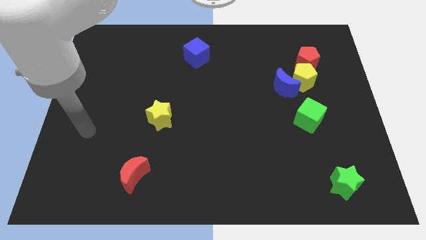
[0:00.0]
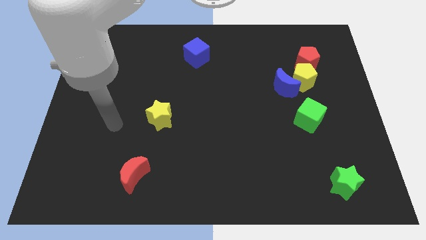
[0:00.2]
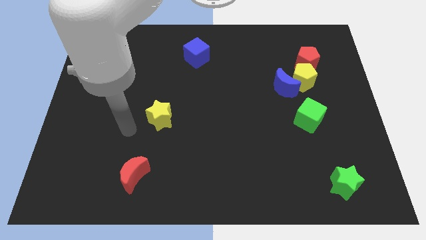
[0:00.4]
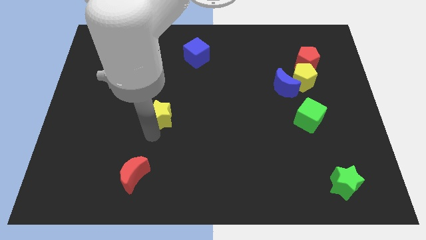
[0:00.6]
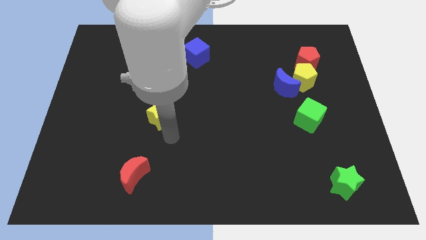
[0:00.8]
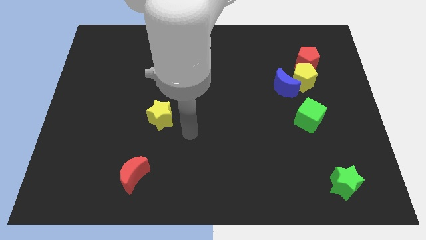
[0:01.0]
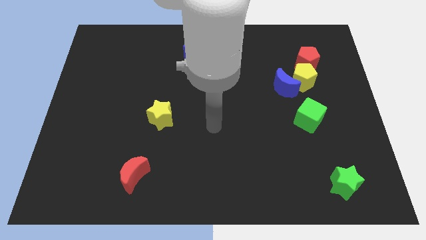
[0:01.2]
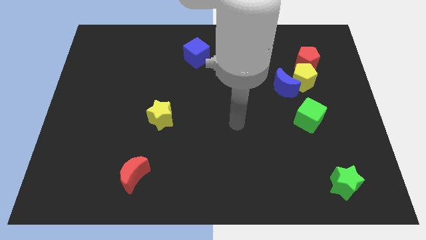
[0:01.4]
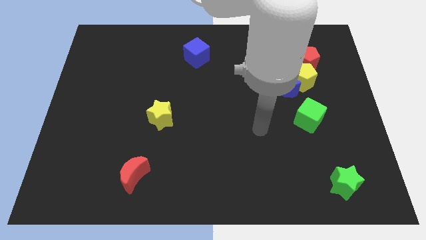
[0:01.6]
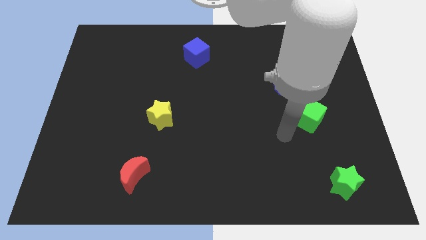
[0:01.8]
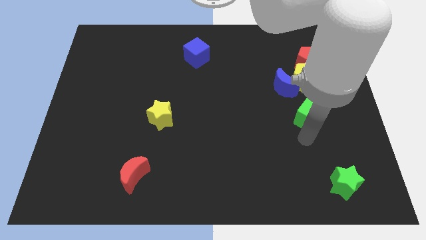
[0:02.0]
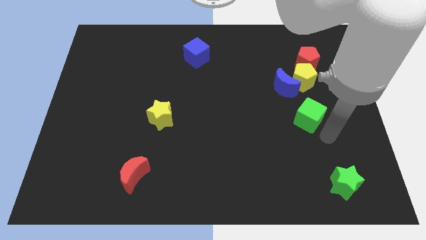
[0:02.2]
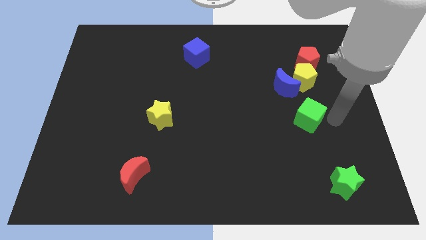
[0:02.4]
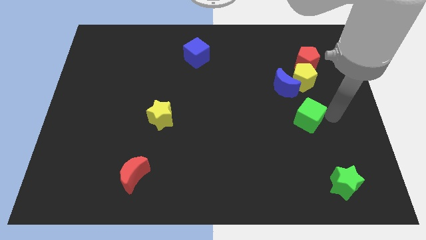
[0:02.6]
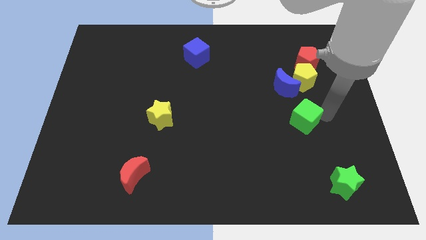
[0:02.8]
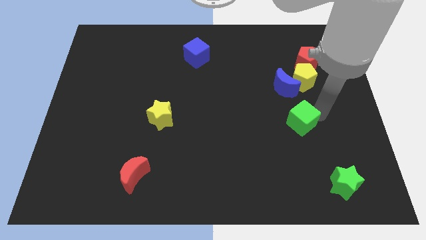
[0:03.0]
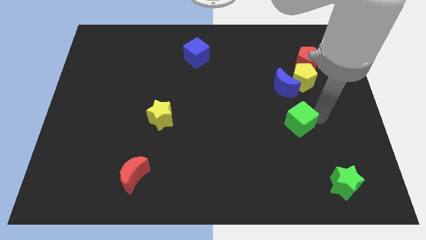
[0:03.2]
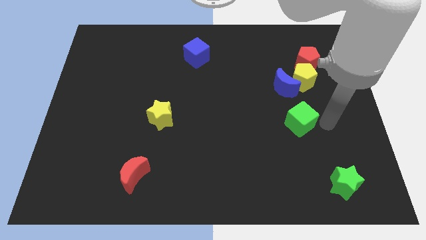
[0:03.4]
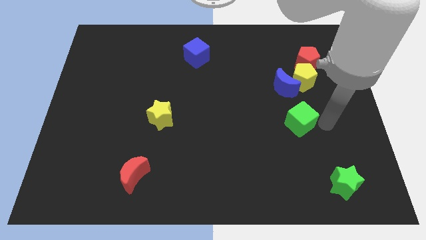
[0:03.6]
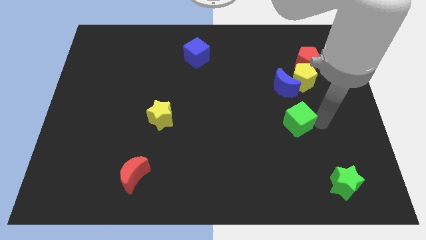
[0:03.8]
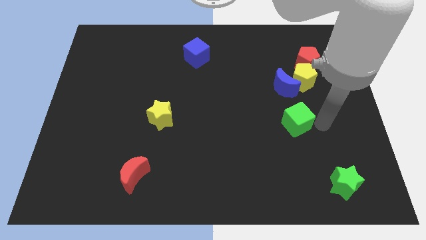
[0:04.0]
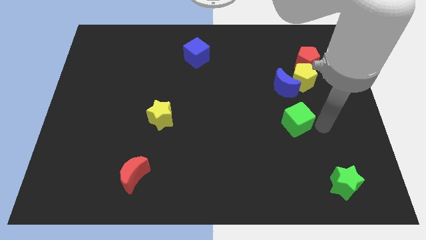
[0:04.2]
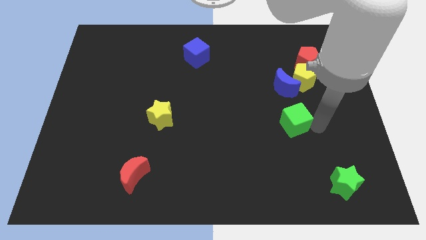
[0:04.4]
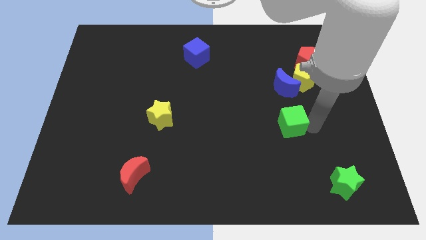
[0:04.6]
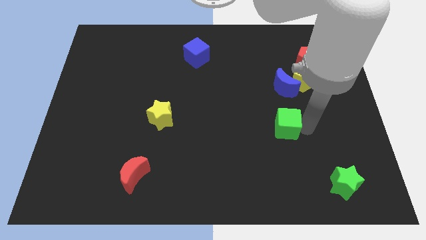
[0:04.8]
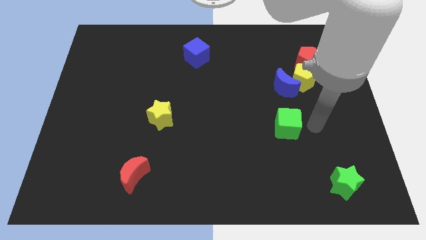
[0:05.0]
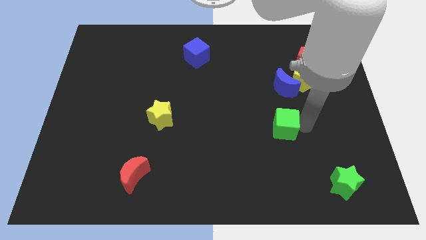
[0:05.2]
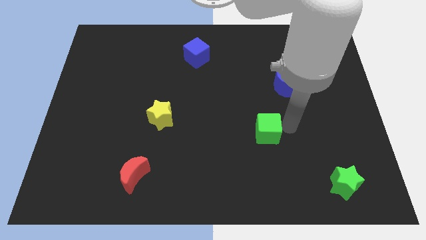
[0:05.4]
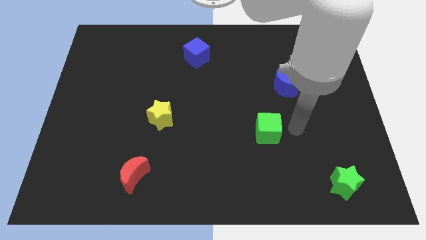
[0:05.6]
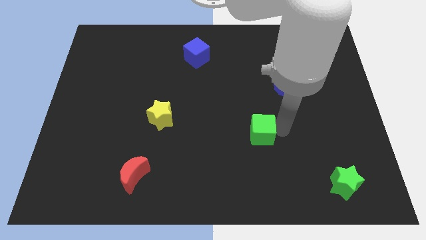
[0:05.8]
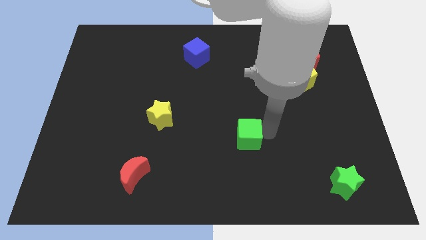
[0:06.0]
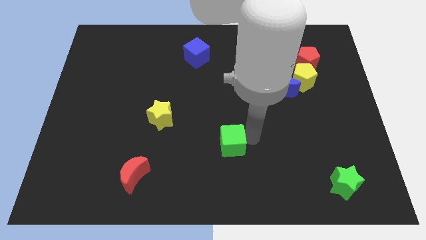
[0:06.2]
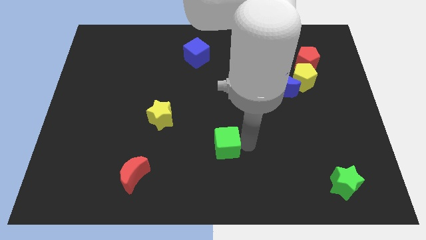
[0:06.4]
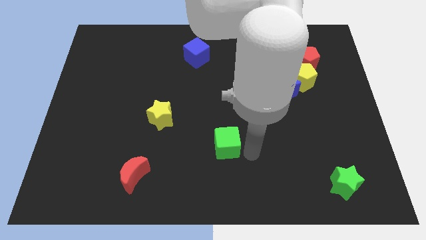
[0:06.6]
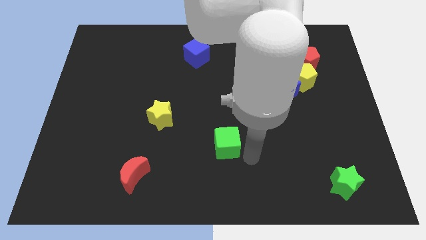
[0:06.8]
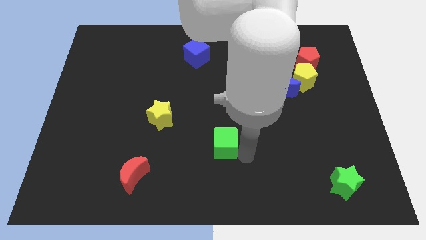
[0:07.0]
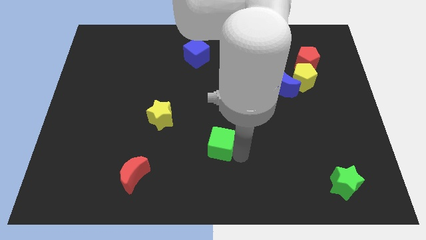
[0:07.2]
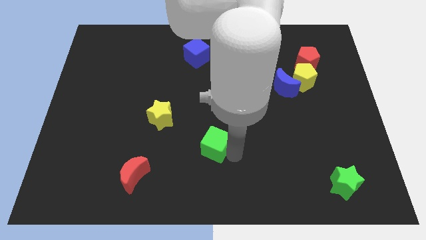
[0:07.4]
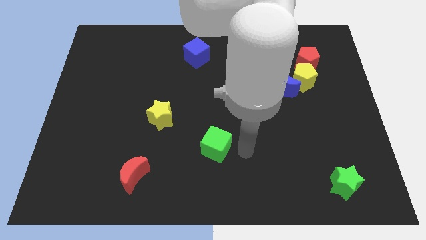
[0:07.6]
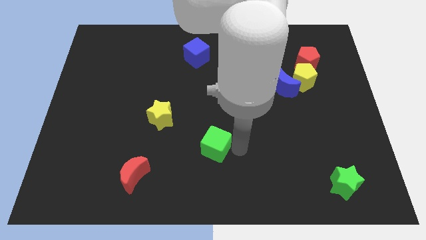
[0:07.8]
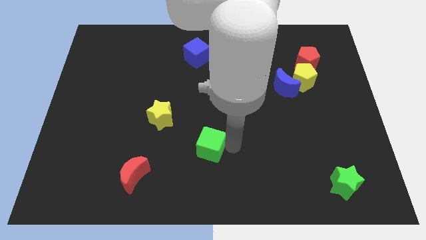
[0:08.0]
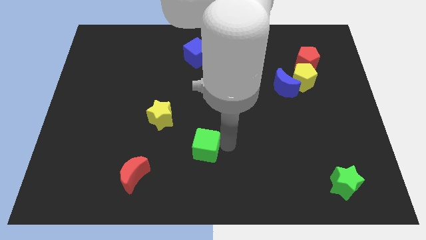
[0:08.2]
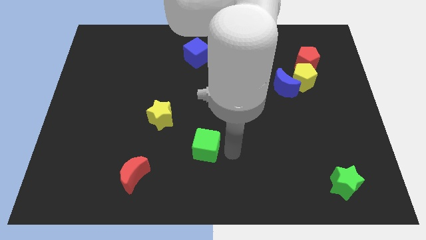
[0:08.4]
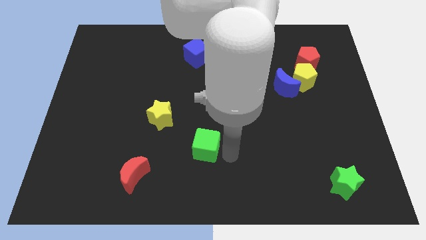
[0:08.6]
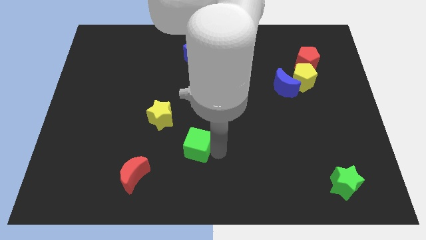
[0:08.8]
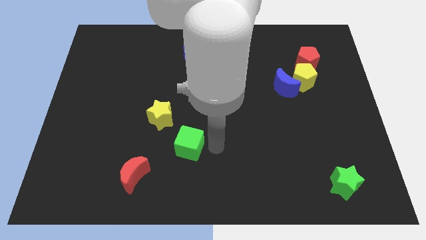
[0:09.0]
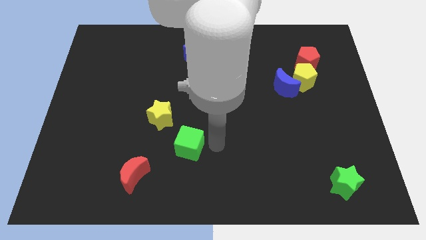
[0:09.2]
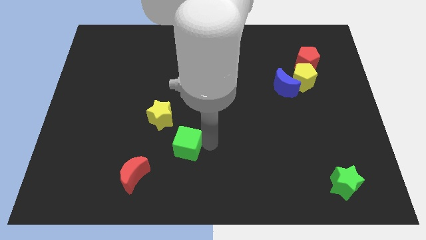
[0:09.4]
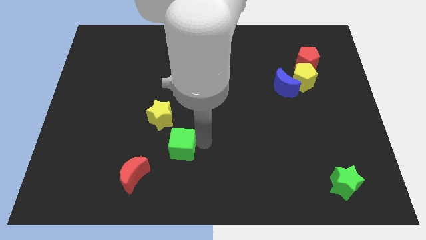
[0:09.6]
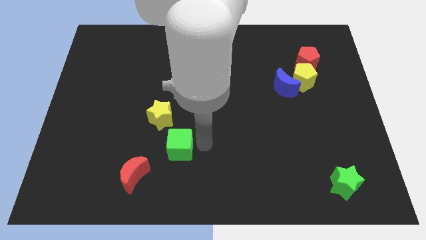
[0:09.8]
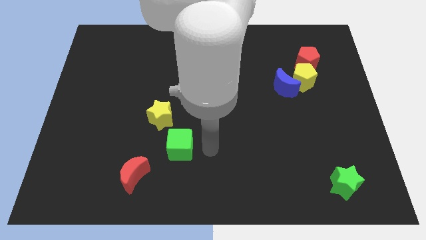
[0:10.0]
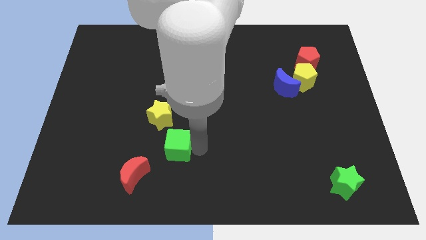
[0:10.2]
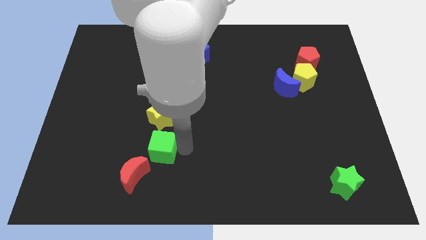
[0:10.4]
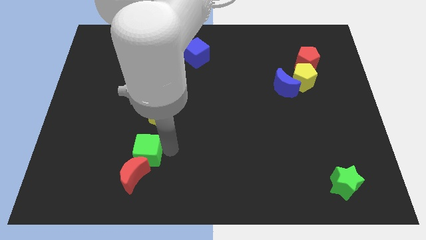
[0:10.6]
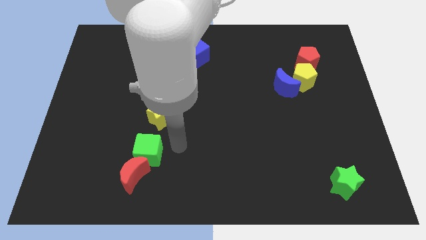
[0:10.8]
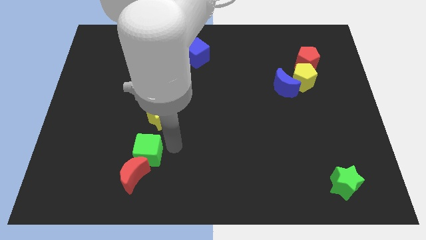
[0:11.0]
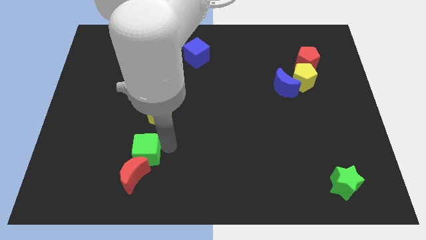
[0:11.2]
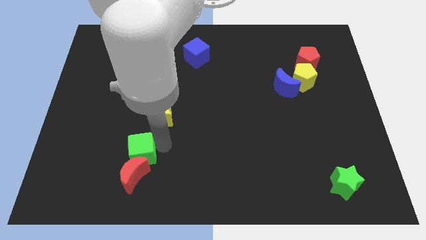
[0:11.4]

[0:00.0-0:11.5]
slide the green cube to the top left of the red moon

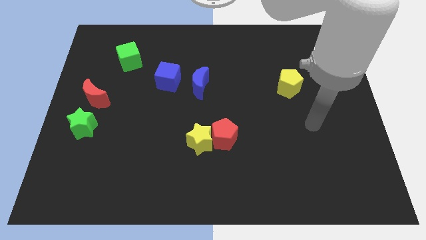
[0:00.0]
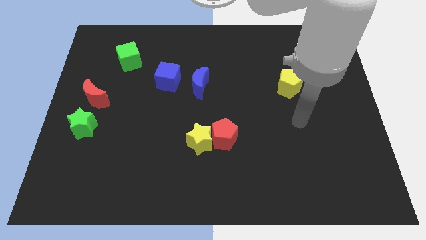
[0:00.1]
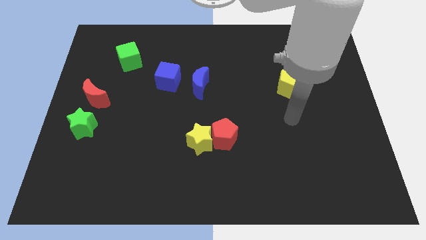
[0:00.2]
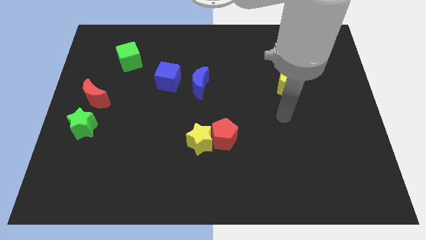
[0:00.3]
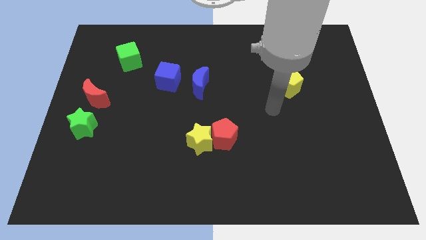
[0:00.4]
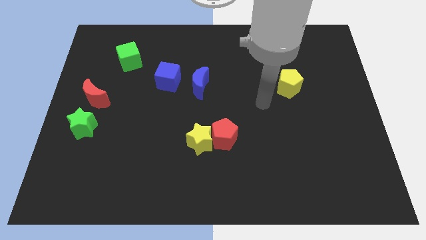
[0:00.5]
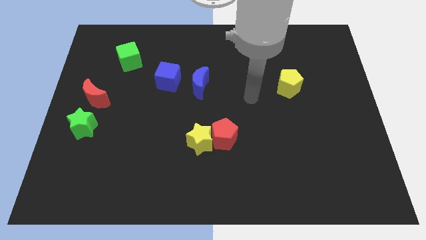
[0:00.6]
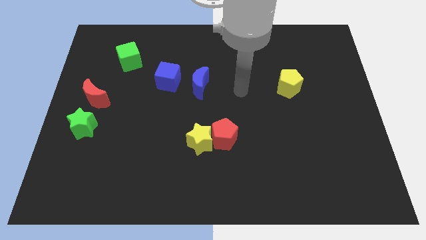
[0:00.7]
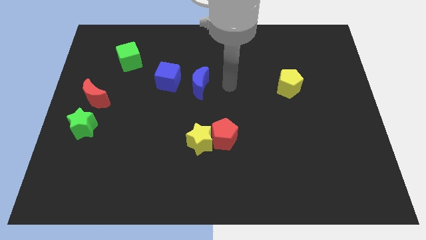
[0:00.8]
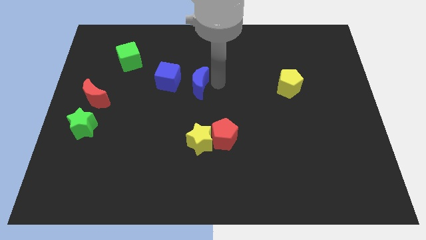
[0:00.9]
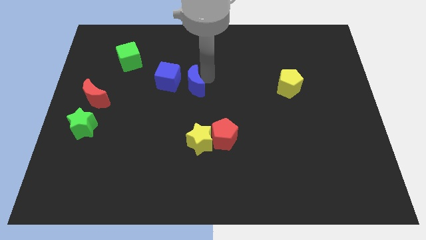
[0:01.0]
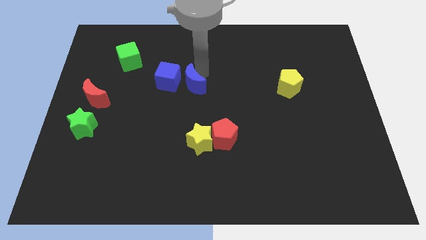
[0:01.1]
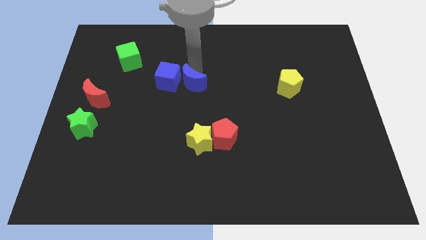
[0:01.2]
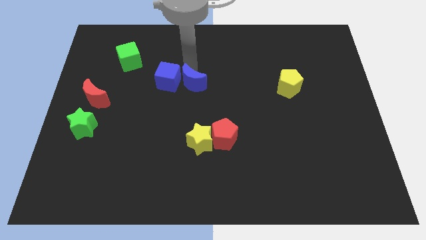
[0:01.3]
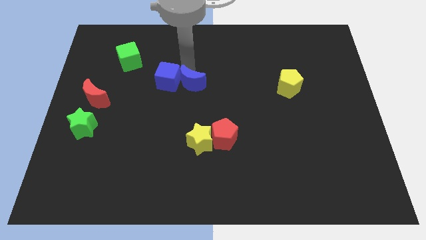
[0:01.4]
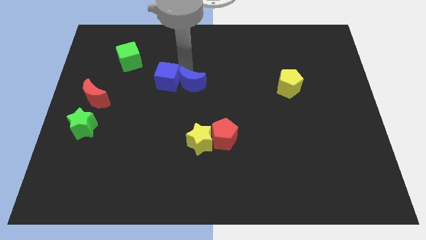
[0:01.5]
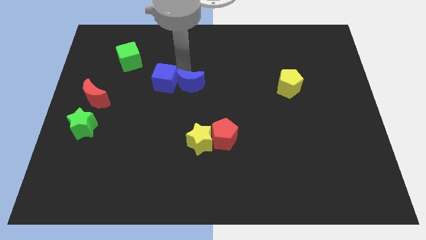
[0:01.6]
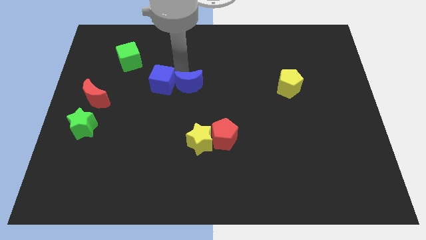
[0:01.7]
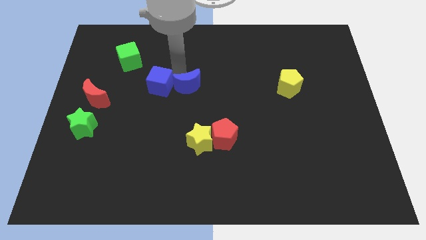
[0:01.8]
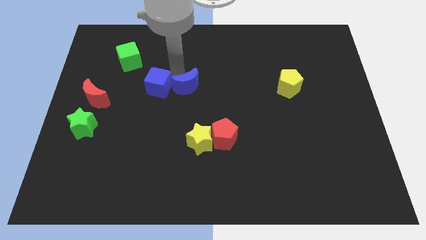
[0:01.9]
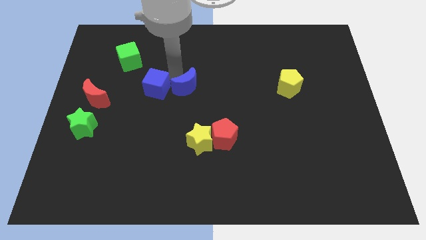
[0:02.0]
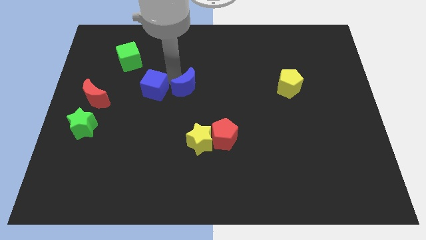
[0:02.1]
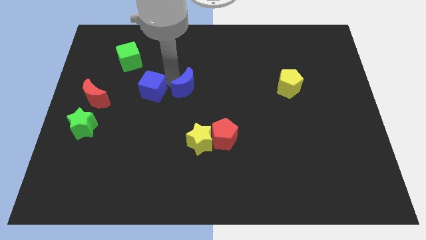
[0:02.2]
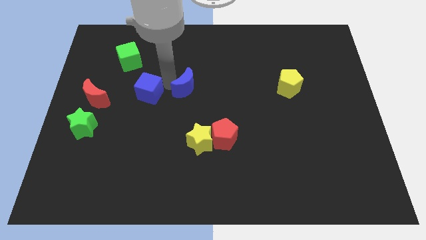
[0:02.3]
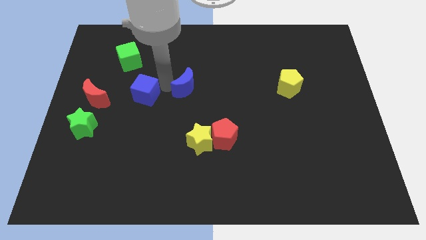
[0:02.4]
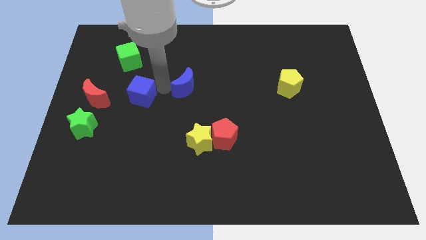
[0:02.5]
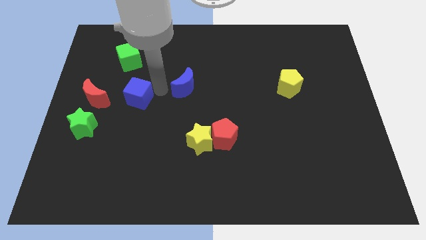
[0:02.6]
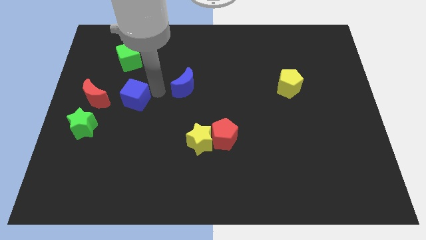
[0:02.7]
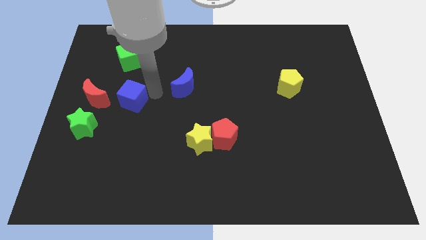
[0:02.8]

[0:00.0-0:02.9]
put the blue cube to the top right side of the green star
